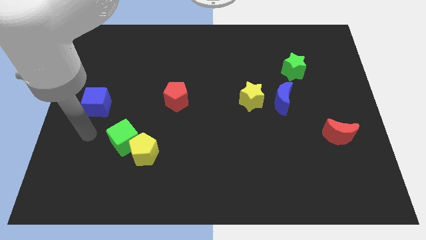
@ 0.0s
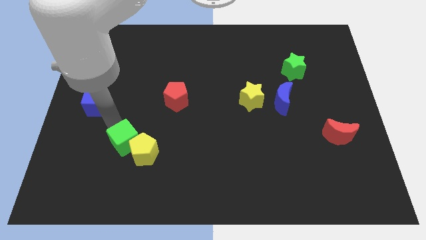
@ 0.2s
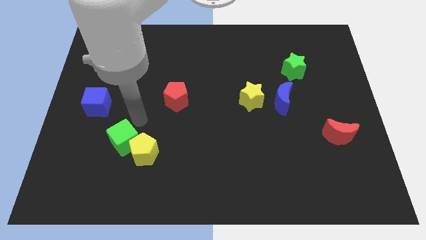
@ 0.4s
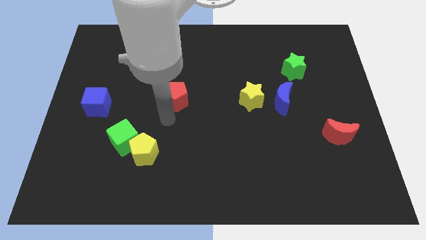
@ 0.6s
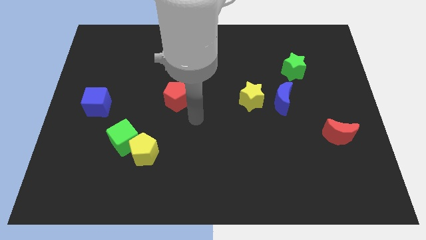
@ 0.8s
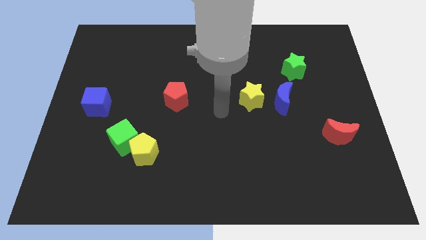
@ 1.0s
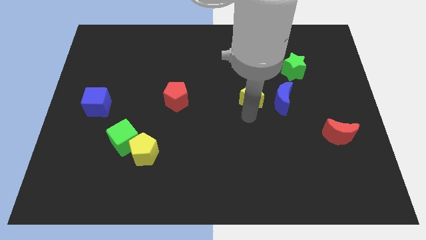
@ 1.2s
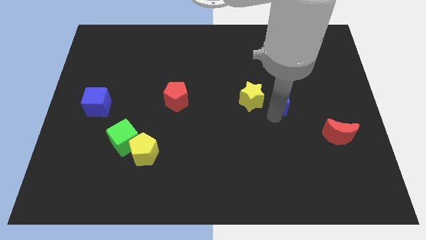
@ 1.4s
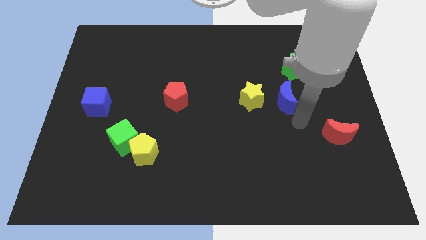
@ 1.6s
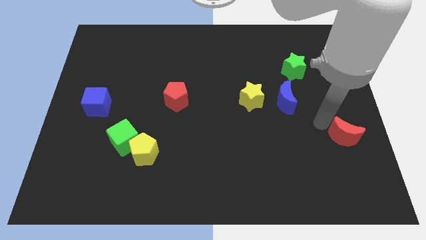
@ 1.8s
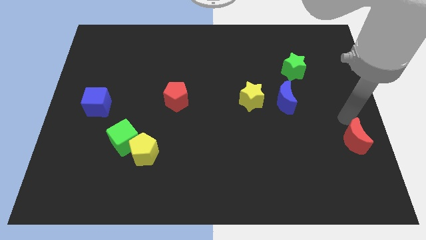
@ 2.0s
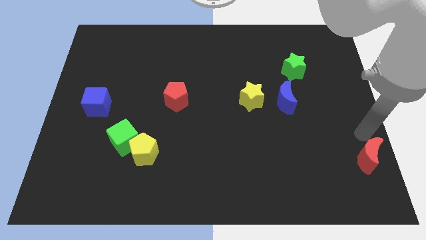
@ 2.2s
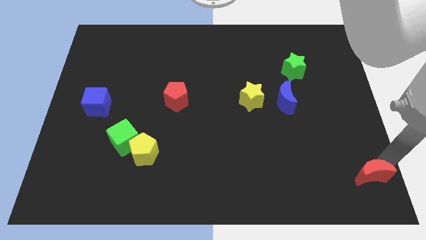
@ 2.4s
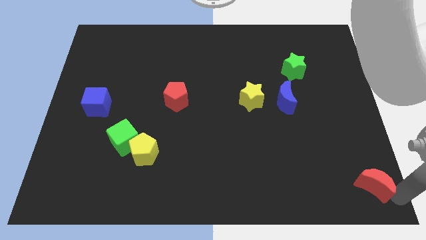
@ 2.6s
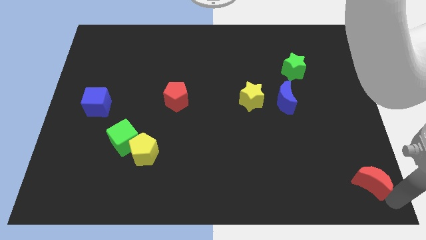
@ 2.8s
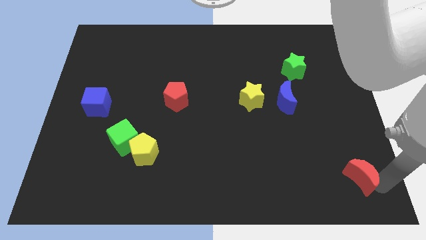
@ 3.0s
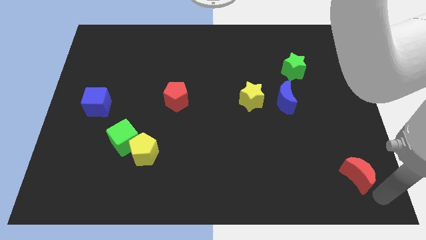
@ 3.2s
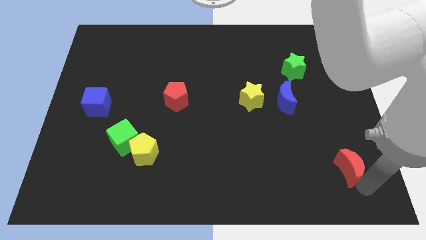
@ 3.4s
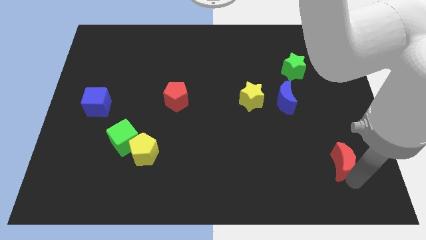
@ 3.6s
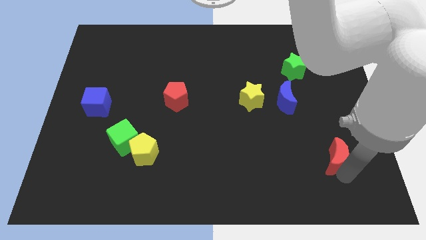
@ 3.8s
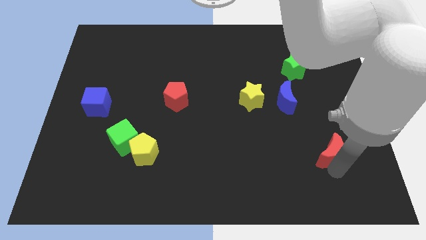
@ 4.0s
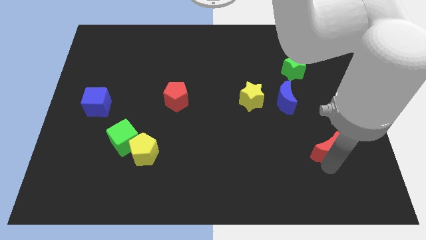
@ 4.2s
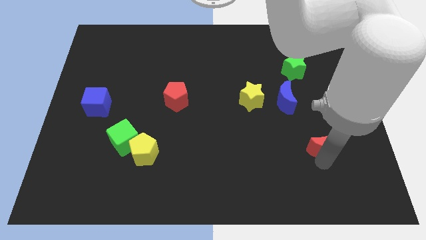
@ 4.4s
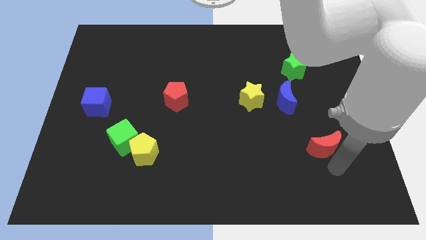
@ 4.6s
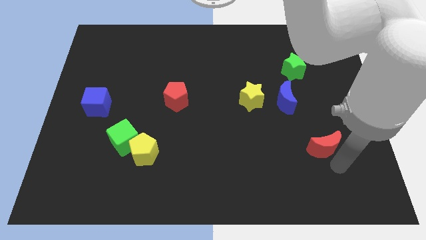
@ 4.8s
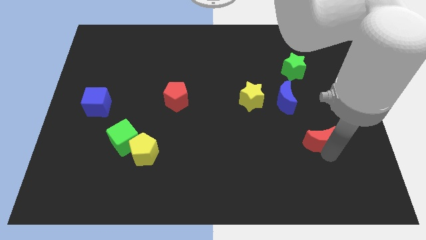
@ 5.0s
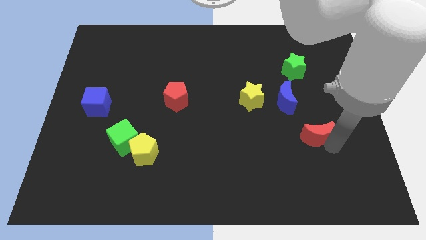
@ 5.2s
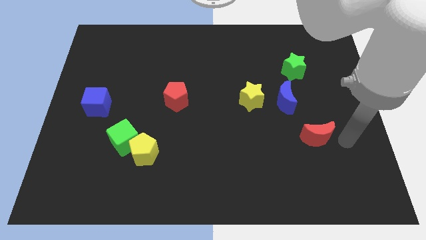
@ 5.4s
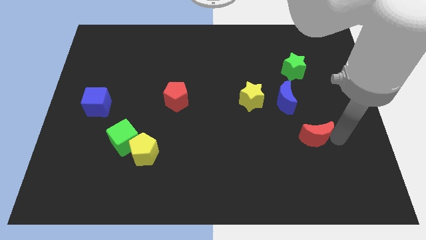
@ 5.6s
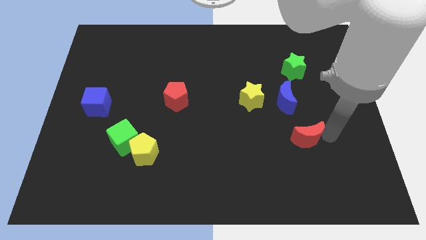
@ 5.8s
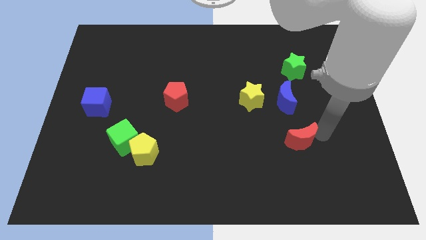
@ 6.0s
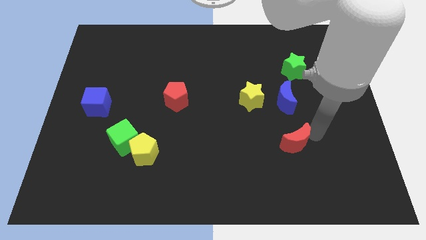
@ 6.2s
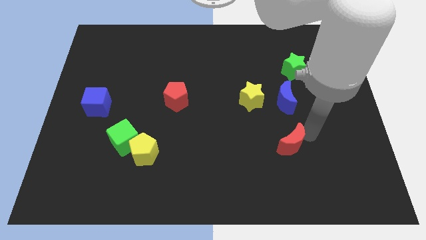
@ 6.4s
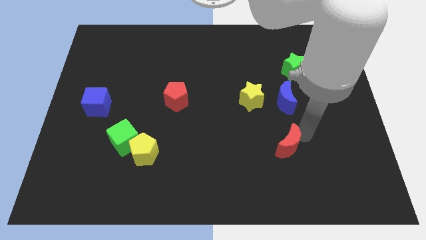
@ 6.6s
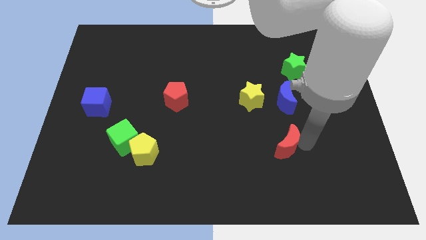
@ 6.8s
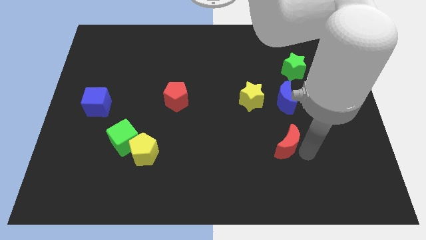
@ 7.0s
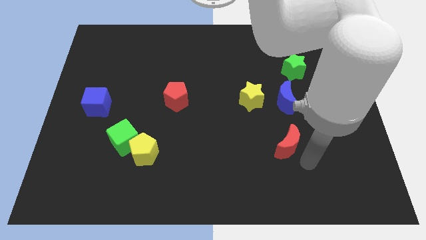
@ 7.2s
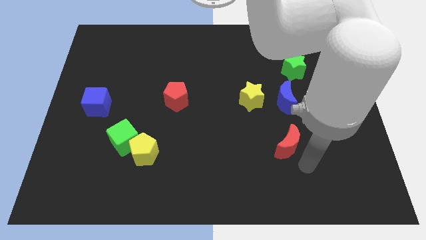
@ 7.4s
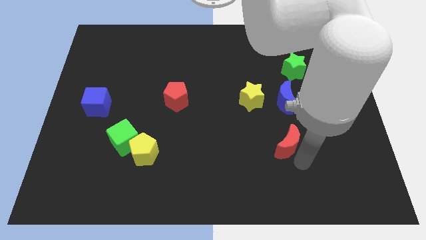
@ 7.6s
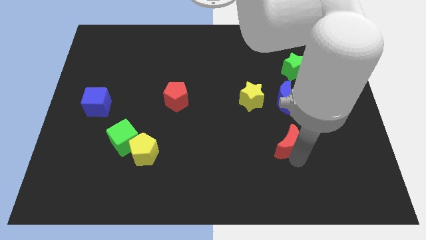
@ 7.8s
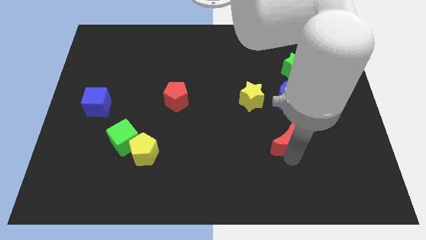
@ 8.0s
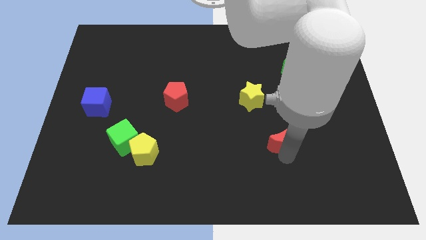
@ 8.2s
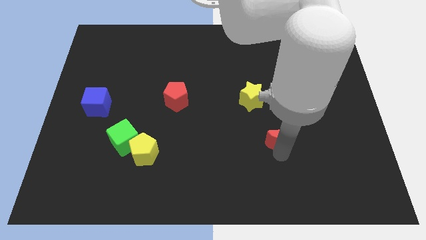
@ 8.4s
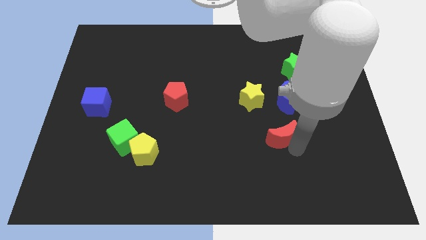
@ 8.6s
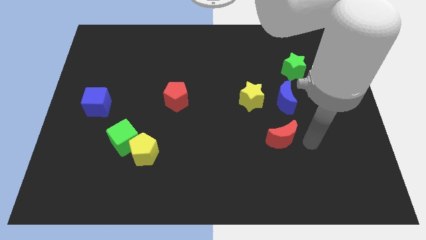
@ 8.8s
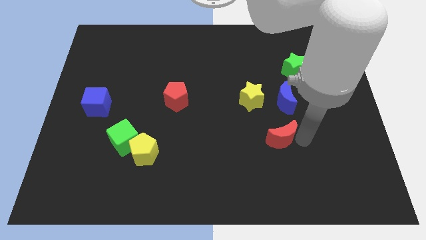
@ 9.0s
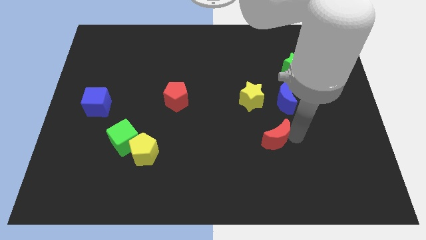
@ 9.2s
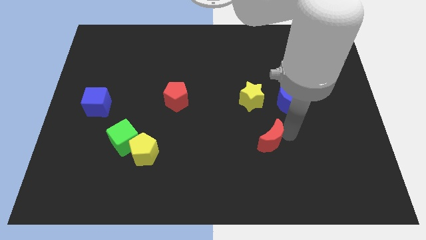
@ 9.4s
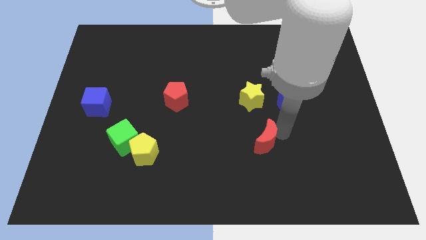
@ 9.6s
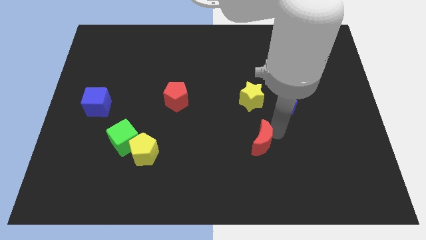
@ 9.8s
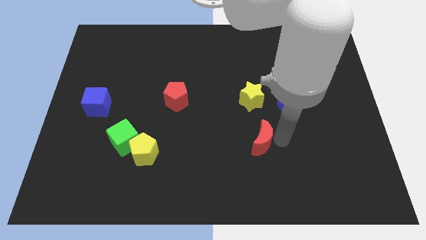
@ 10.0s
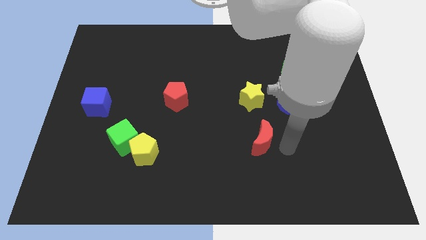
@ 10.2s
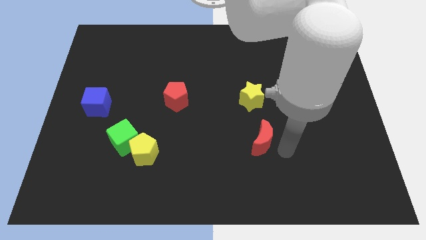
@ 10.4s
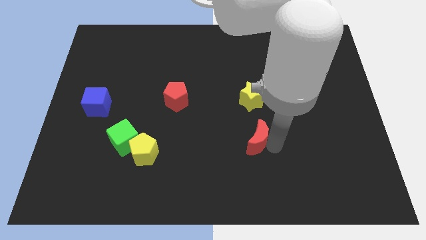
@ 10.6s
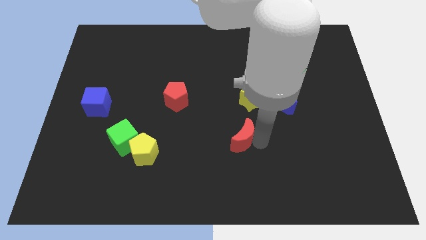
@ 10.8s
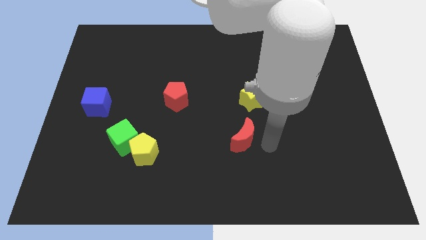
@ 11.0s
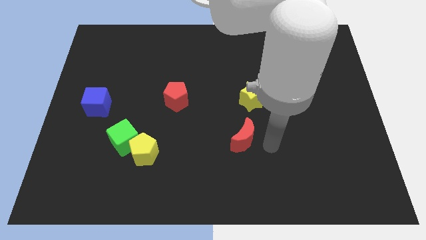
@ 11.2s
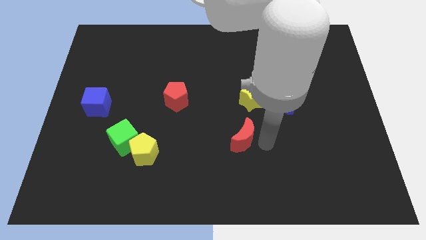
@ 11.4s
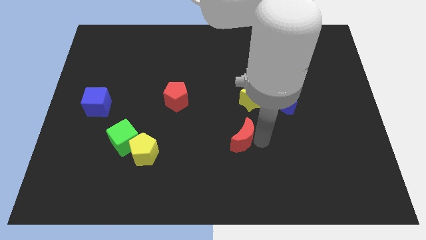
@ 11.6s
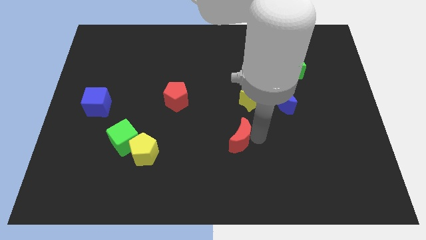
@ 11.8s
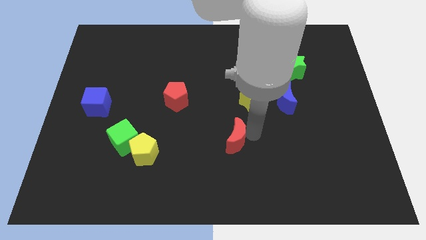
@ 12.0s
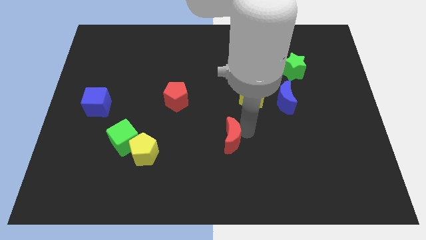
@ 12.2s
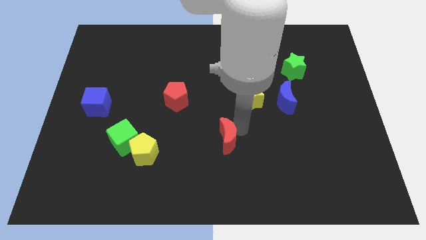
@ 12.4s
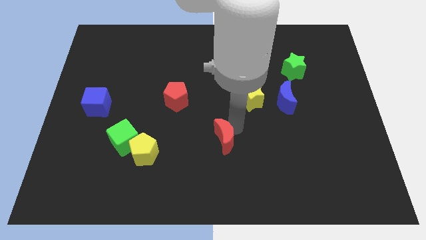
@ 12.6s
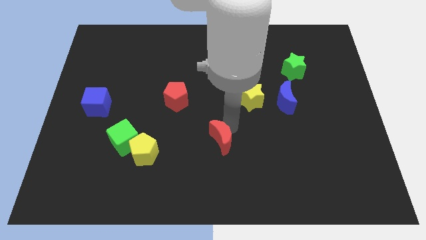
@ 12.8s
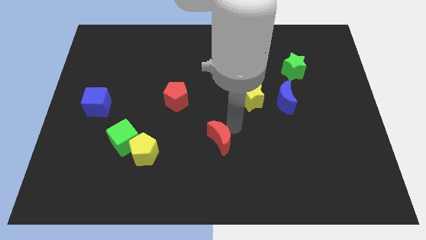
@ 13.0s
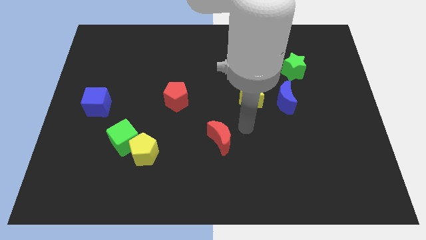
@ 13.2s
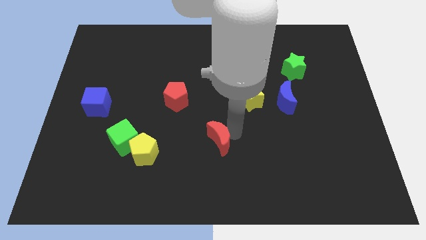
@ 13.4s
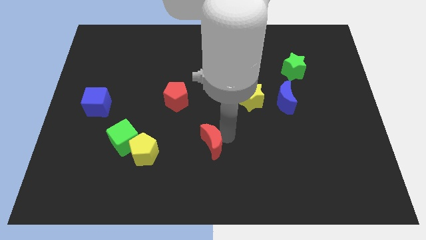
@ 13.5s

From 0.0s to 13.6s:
move the red moon to the right side of the yellow pentagon
